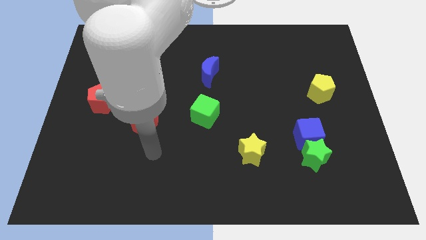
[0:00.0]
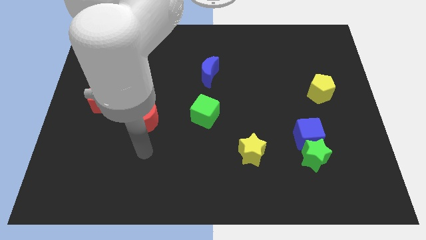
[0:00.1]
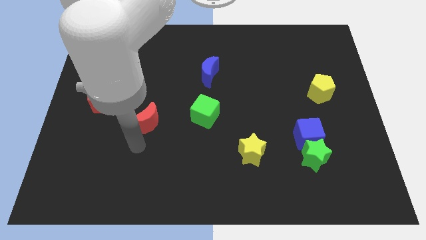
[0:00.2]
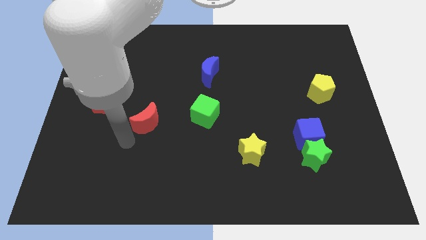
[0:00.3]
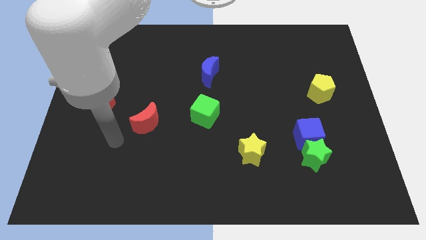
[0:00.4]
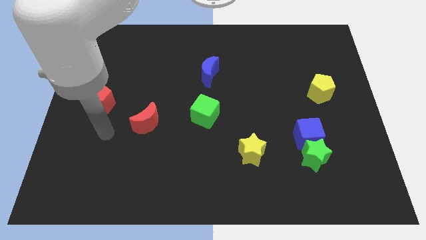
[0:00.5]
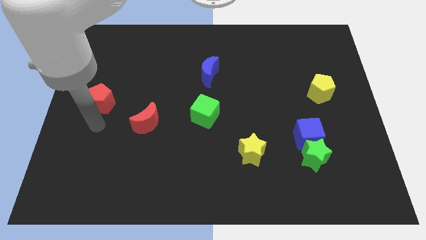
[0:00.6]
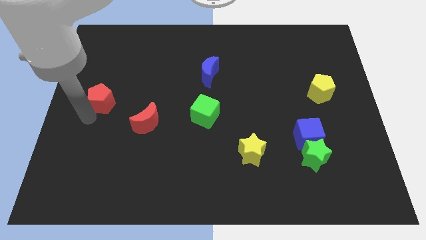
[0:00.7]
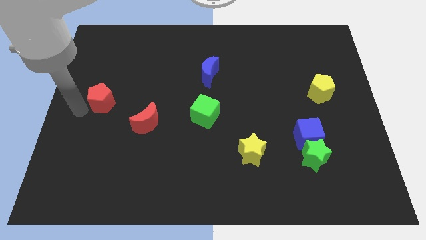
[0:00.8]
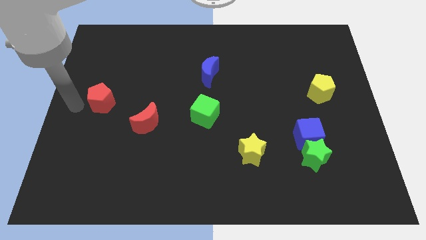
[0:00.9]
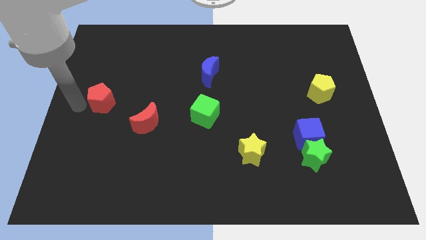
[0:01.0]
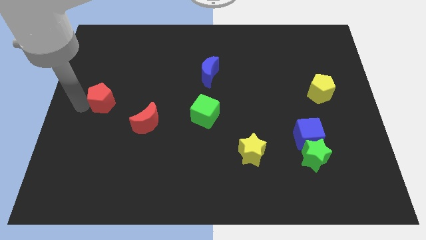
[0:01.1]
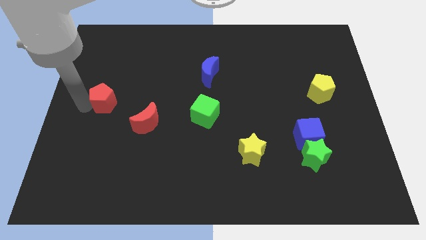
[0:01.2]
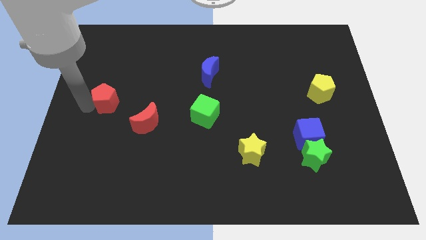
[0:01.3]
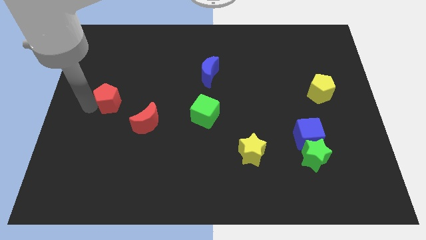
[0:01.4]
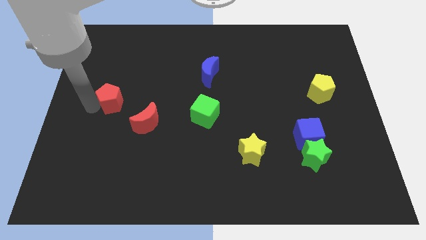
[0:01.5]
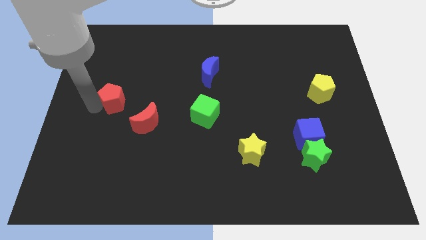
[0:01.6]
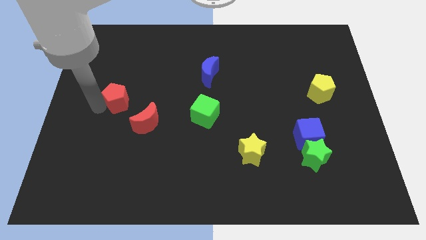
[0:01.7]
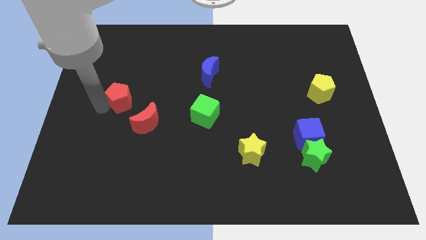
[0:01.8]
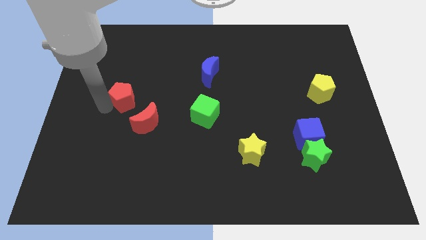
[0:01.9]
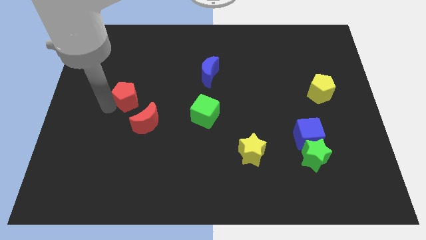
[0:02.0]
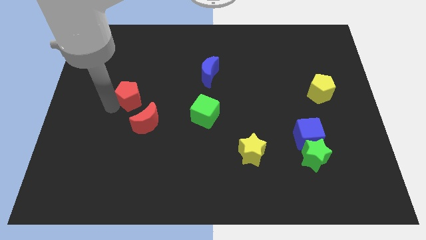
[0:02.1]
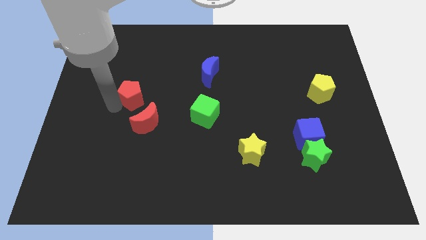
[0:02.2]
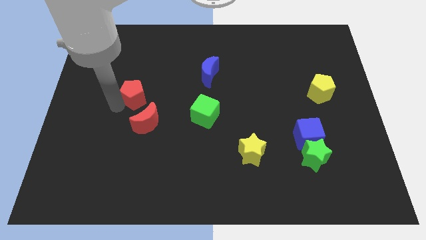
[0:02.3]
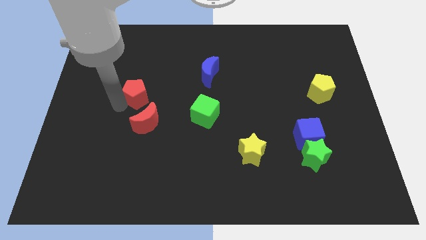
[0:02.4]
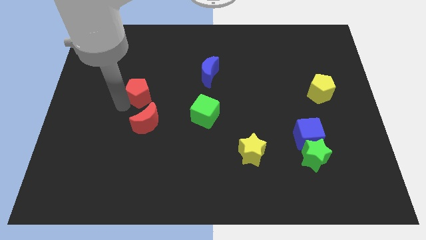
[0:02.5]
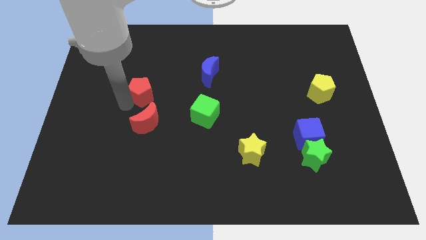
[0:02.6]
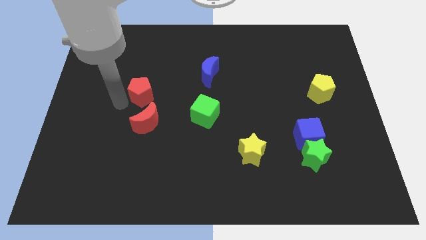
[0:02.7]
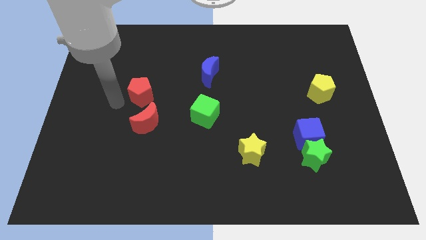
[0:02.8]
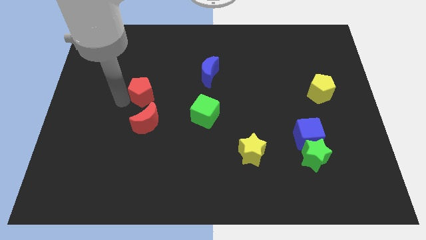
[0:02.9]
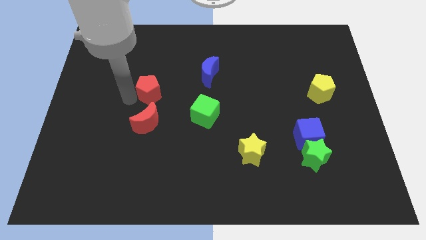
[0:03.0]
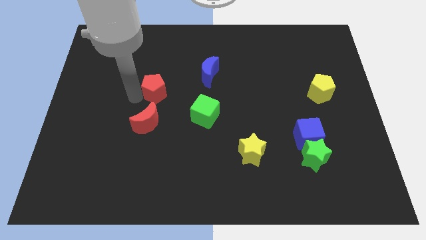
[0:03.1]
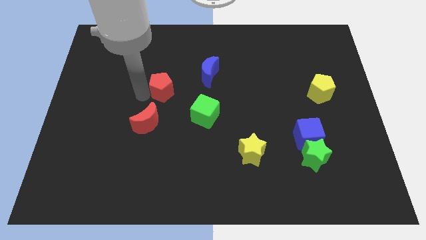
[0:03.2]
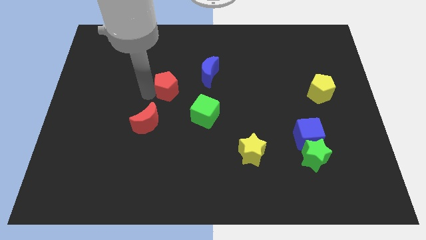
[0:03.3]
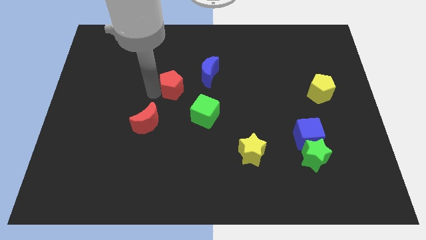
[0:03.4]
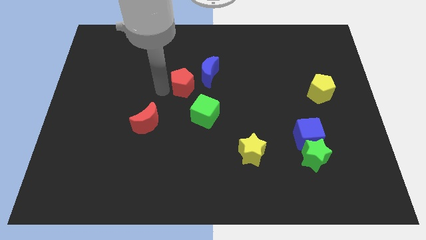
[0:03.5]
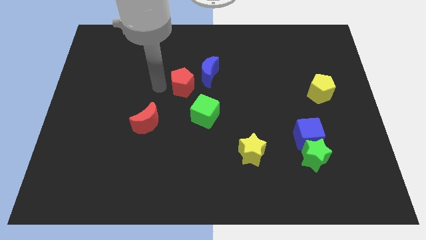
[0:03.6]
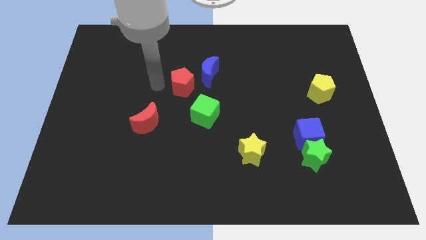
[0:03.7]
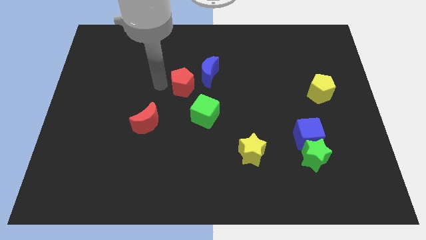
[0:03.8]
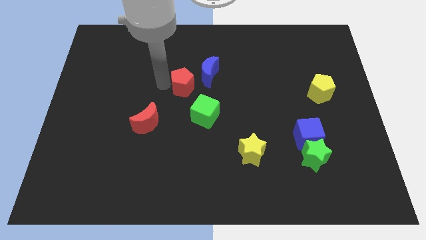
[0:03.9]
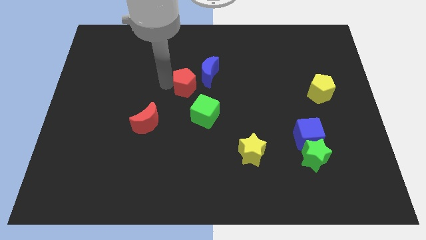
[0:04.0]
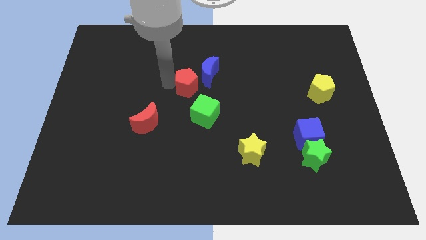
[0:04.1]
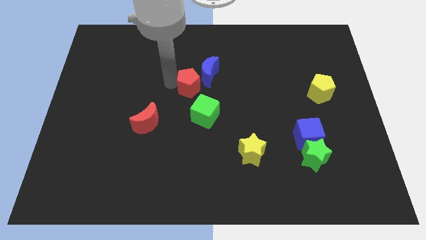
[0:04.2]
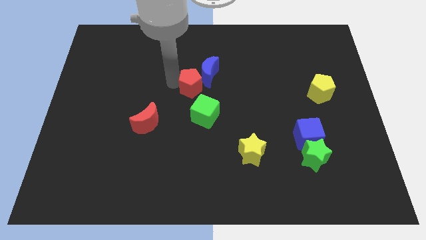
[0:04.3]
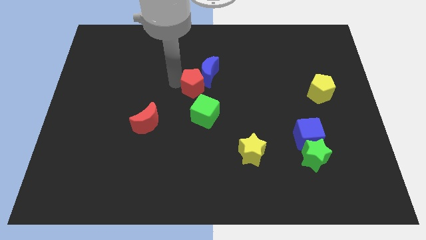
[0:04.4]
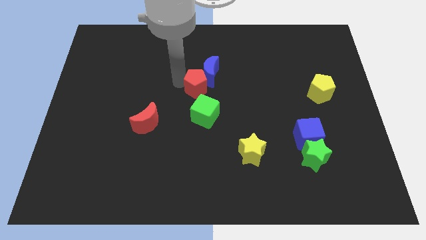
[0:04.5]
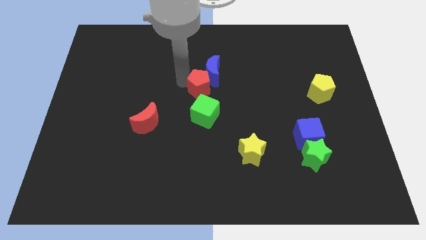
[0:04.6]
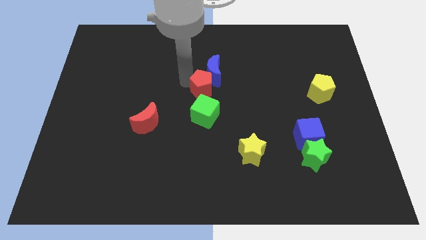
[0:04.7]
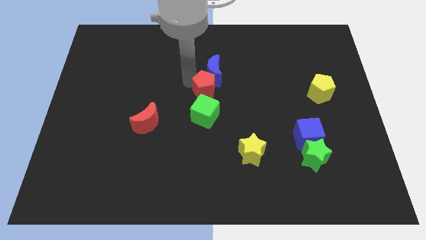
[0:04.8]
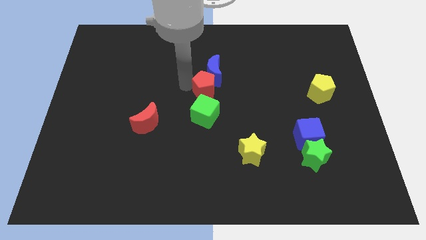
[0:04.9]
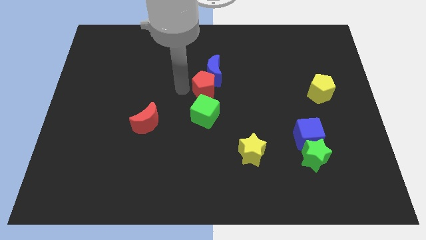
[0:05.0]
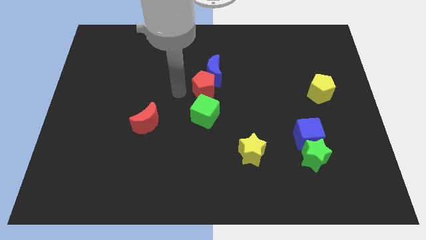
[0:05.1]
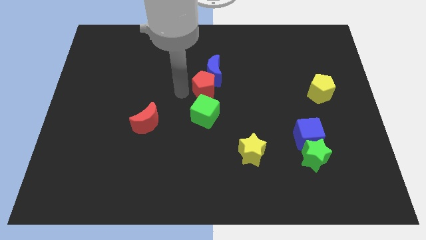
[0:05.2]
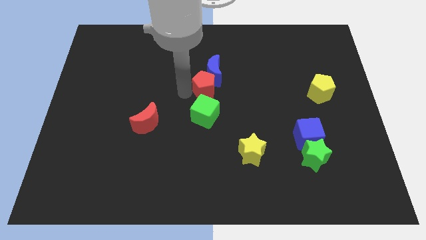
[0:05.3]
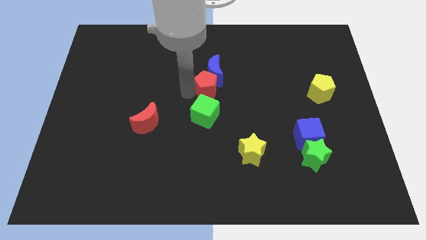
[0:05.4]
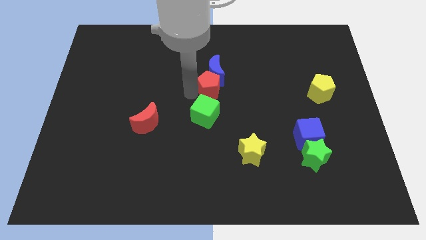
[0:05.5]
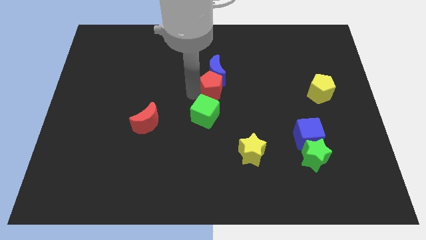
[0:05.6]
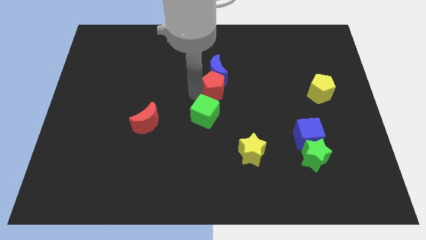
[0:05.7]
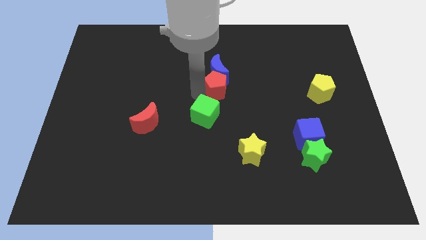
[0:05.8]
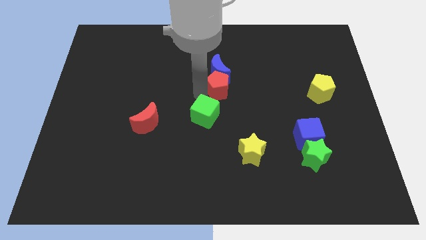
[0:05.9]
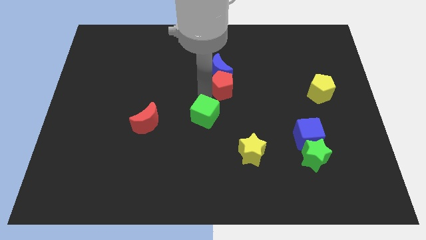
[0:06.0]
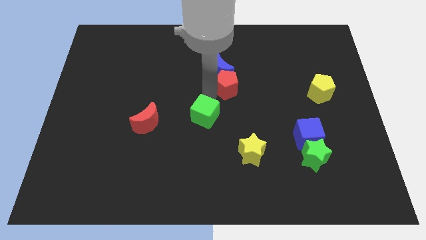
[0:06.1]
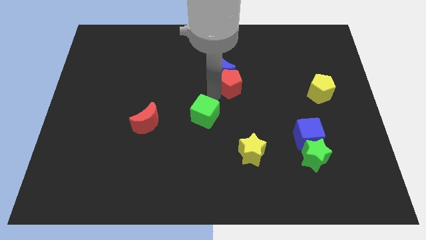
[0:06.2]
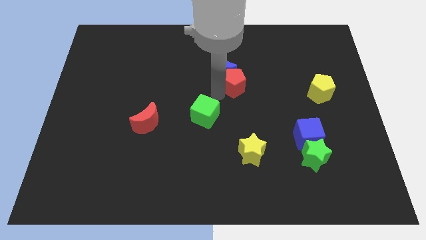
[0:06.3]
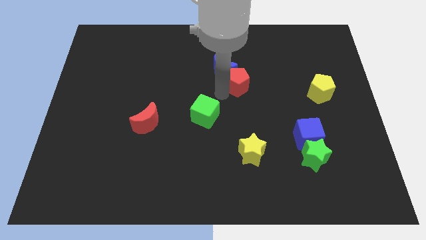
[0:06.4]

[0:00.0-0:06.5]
put the red pentagon just right of the blue moon

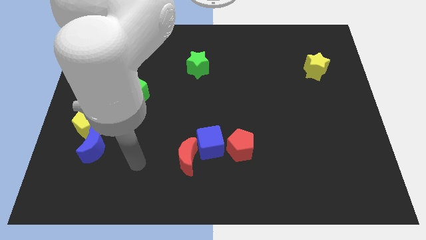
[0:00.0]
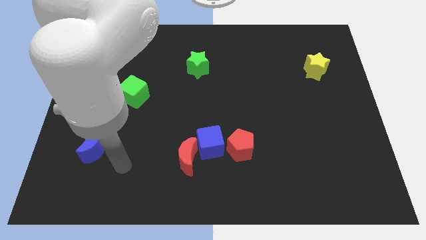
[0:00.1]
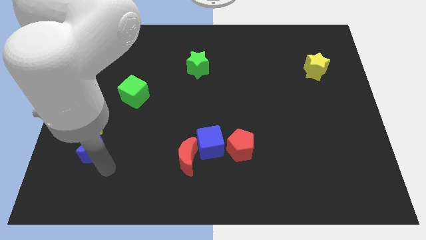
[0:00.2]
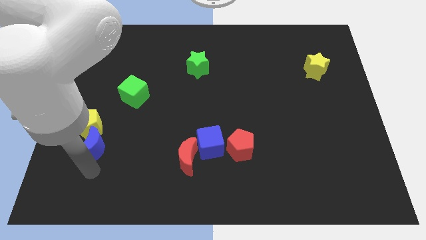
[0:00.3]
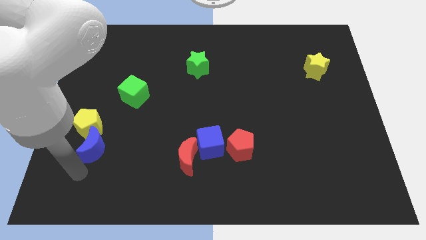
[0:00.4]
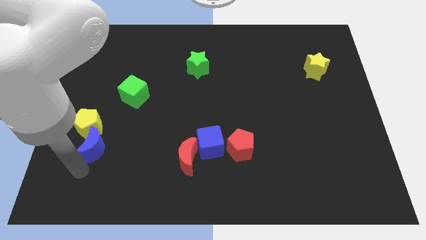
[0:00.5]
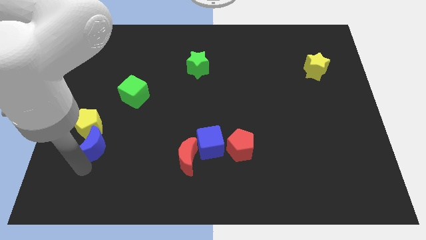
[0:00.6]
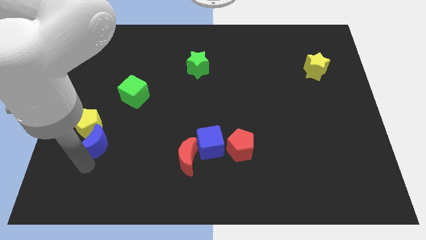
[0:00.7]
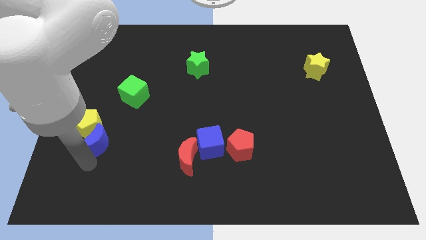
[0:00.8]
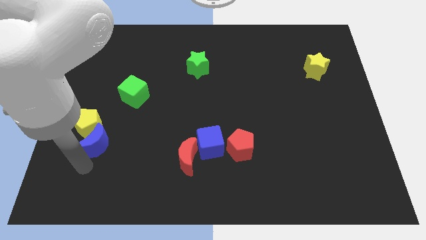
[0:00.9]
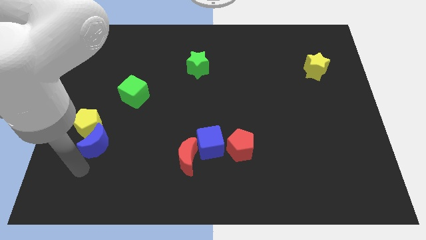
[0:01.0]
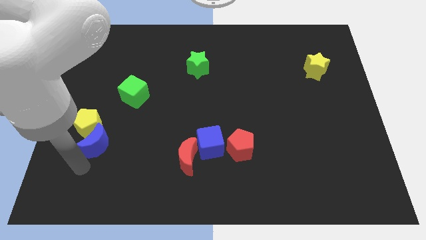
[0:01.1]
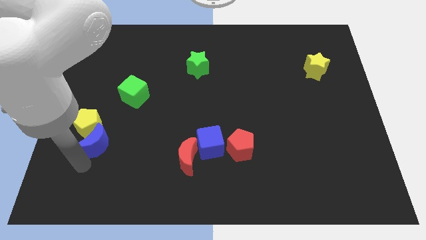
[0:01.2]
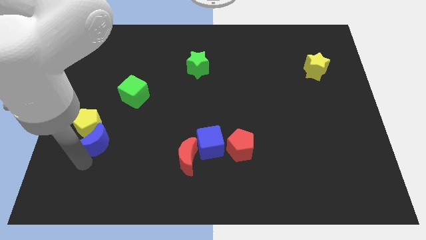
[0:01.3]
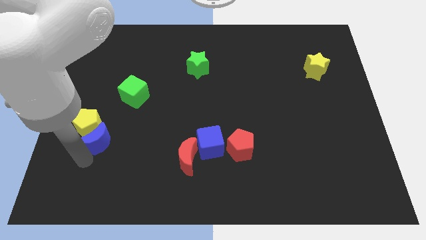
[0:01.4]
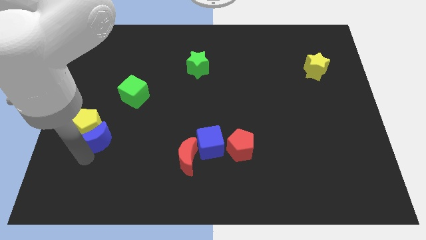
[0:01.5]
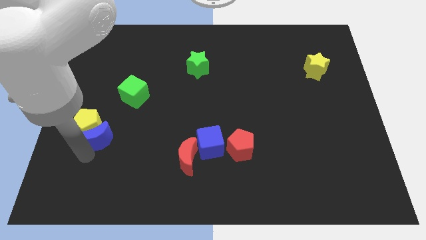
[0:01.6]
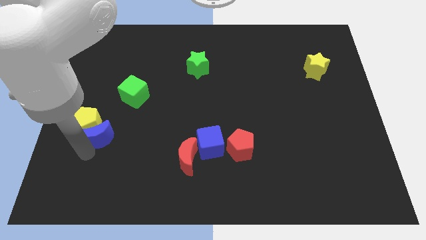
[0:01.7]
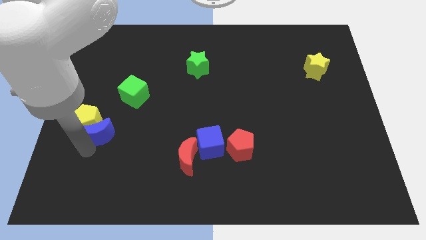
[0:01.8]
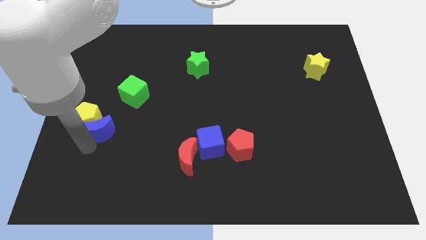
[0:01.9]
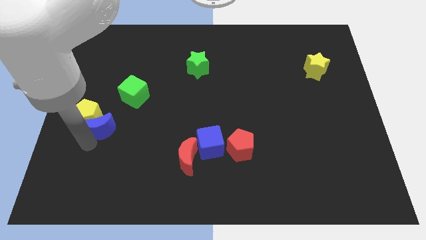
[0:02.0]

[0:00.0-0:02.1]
put the blue moon diagonally down and to the left of the green cube
